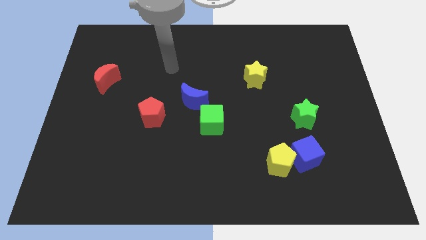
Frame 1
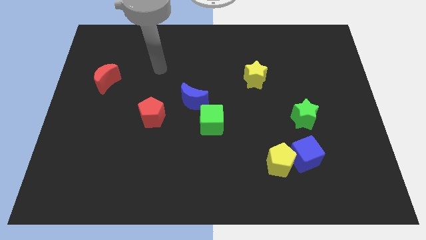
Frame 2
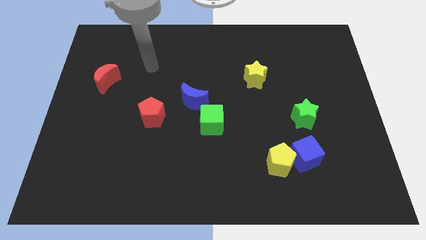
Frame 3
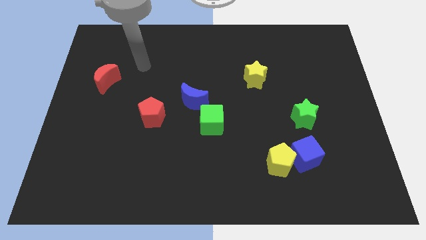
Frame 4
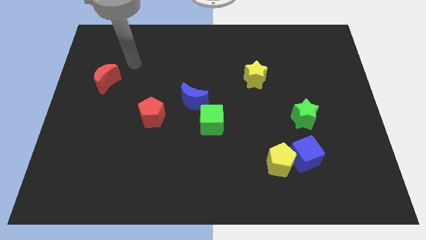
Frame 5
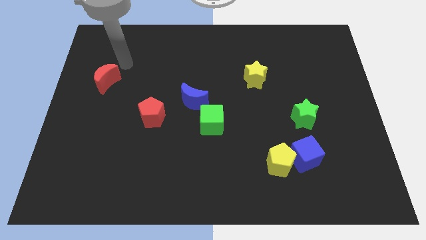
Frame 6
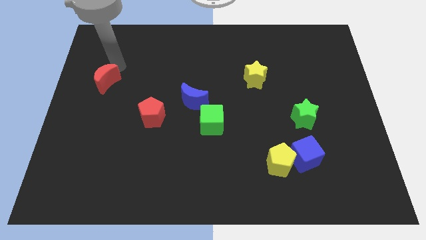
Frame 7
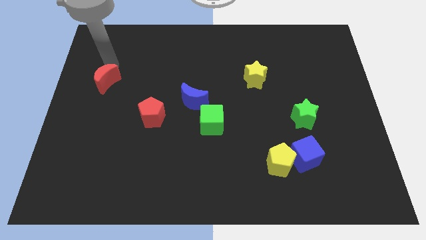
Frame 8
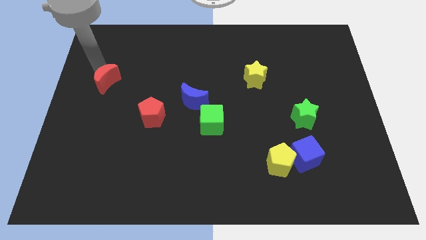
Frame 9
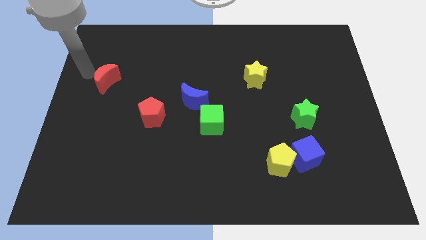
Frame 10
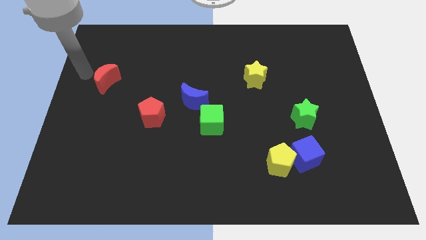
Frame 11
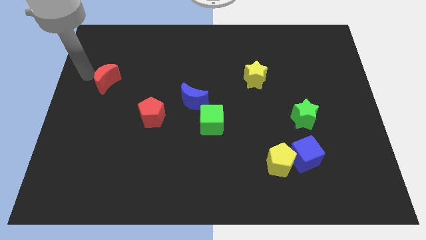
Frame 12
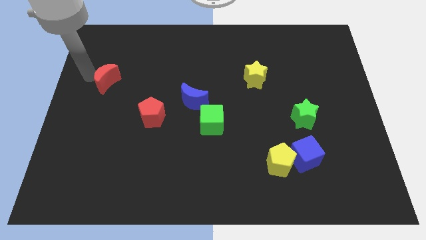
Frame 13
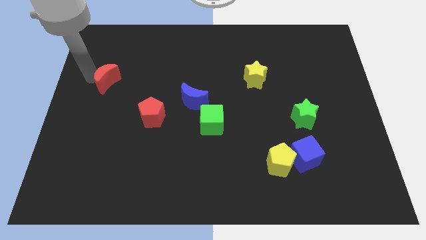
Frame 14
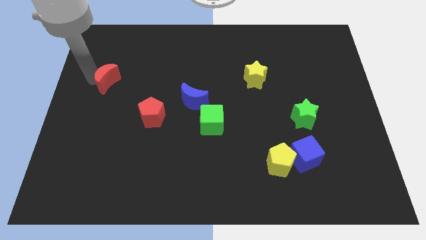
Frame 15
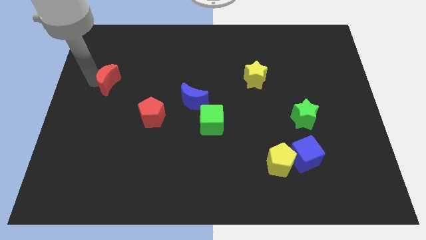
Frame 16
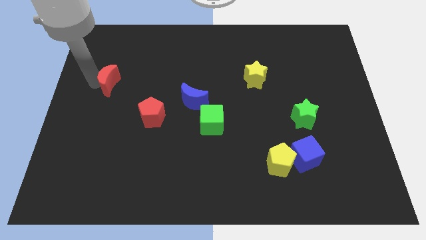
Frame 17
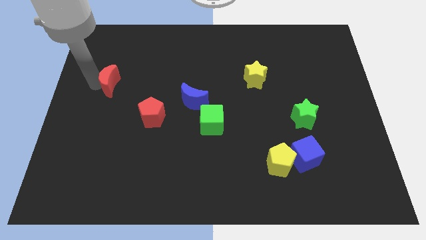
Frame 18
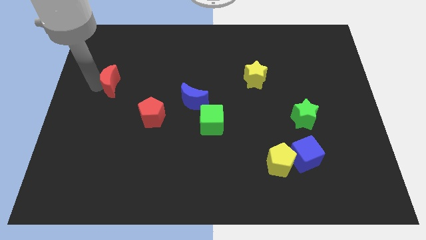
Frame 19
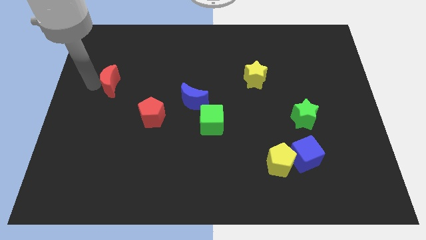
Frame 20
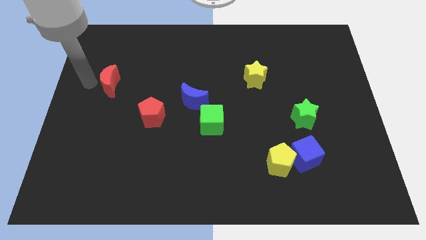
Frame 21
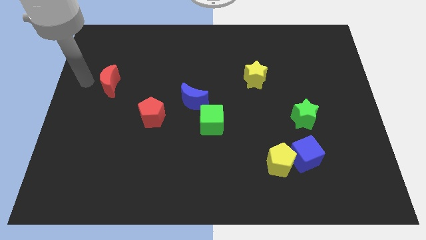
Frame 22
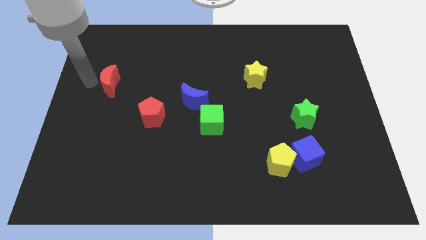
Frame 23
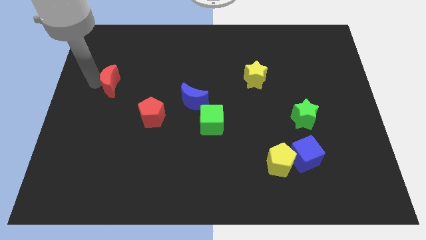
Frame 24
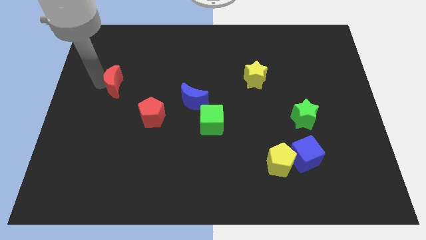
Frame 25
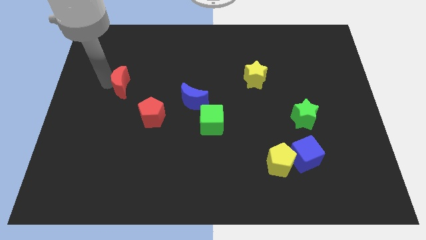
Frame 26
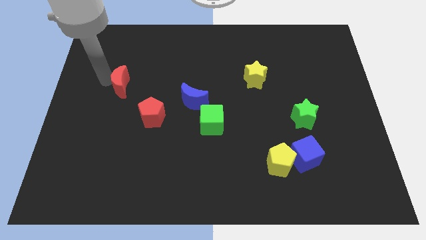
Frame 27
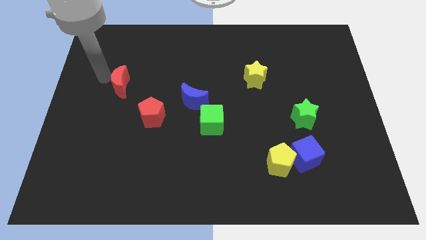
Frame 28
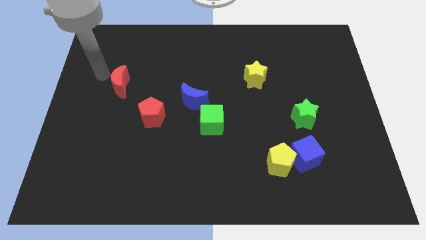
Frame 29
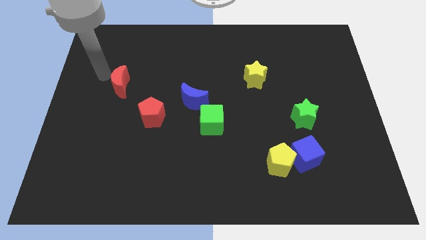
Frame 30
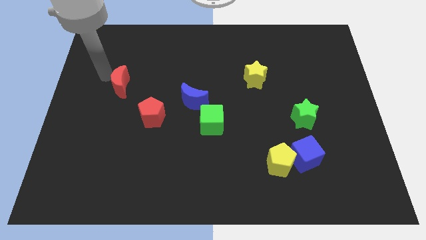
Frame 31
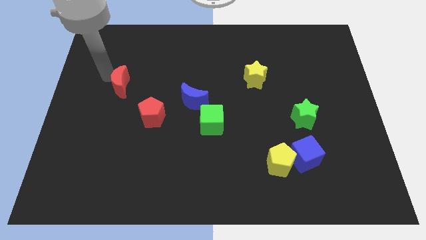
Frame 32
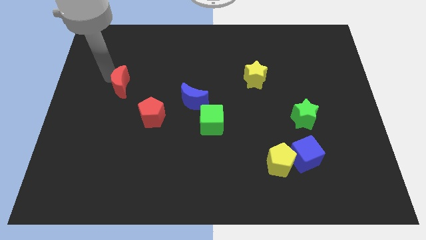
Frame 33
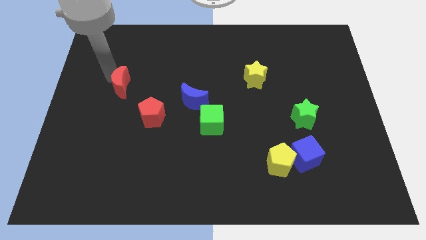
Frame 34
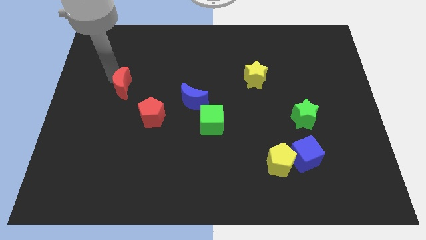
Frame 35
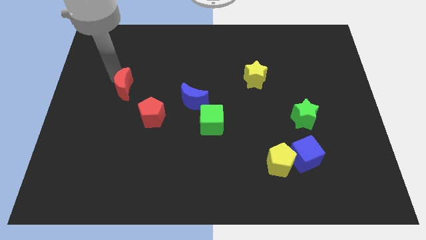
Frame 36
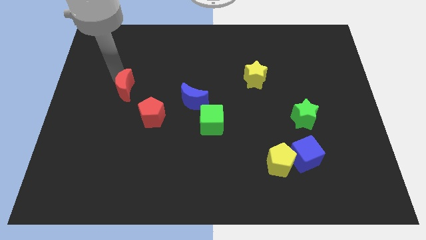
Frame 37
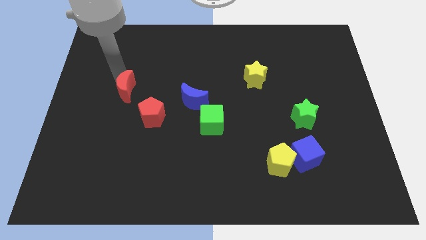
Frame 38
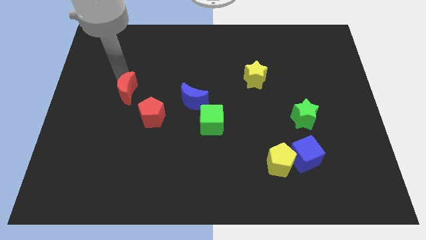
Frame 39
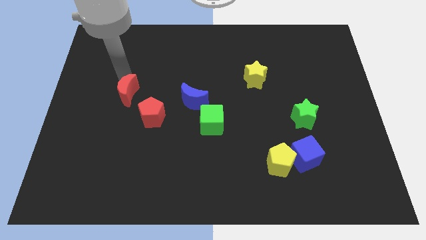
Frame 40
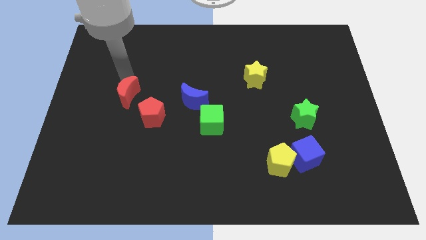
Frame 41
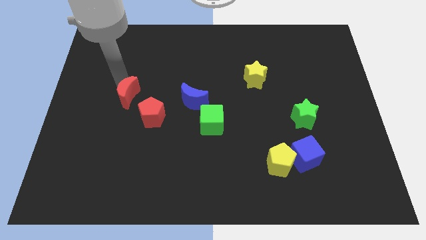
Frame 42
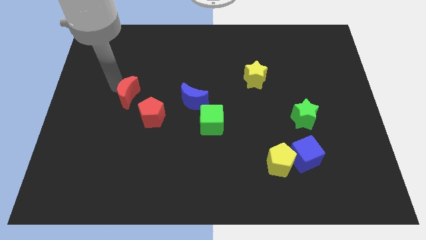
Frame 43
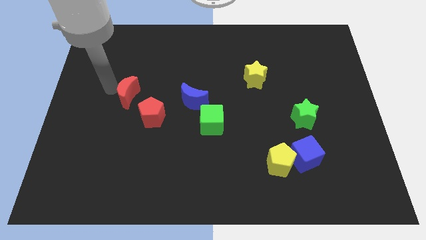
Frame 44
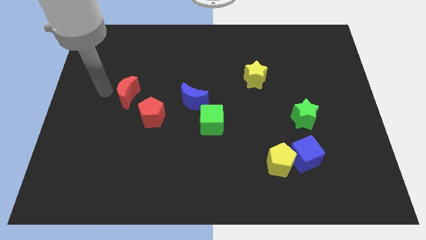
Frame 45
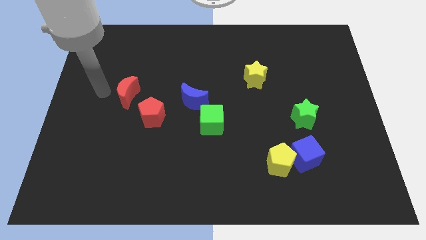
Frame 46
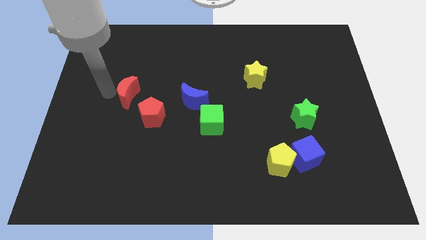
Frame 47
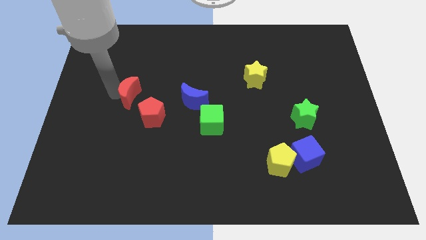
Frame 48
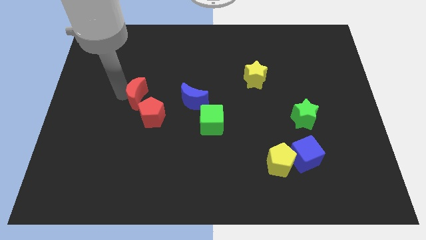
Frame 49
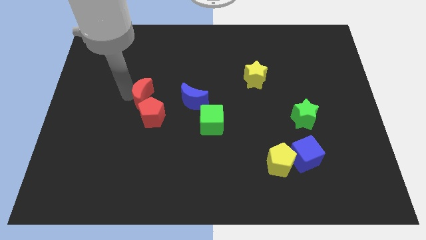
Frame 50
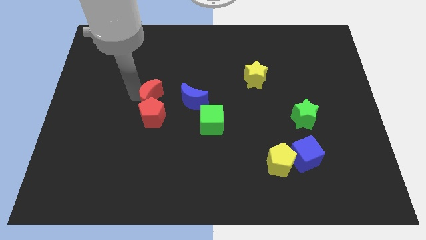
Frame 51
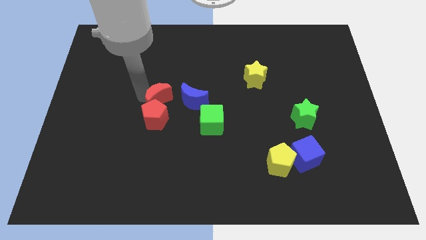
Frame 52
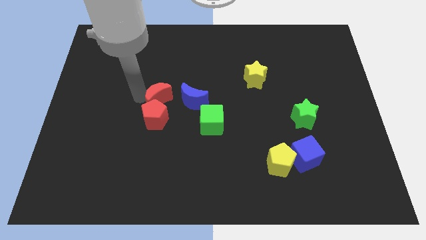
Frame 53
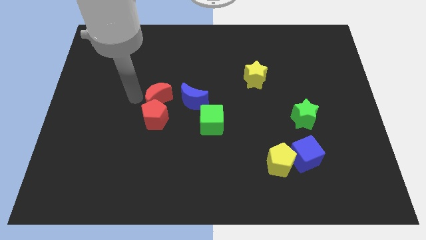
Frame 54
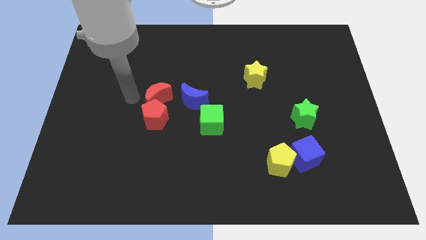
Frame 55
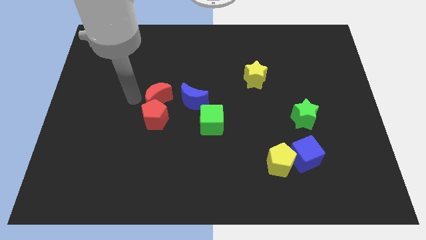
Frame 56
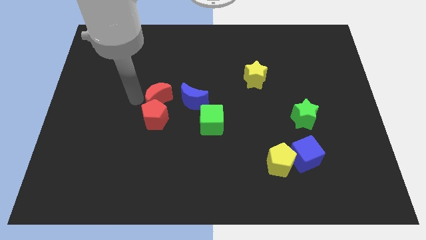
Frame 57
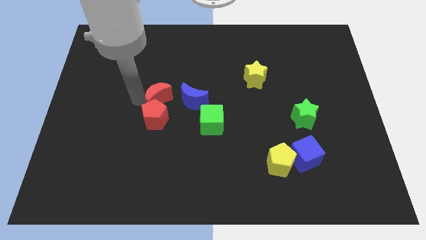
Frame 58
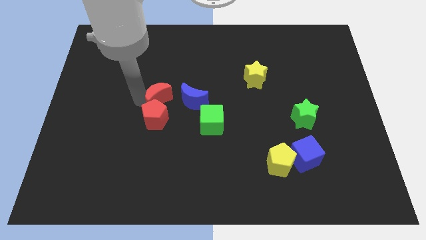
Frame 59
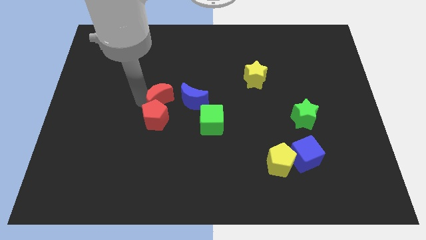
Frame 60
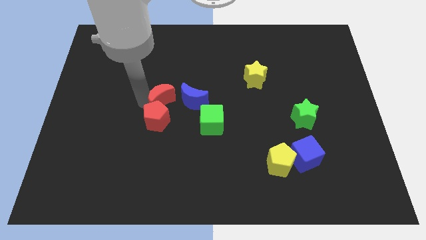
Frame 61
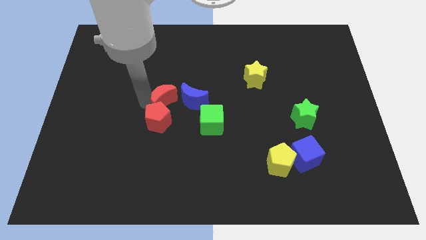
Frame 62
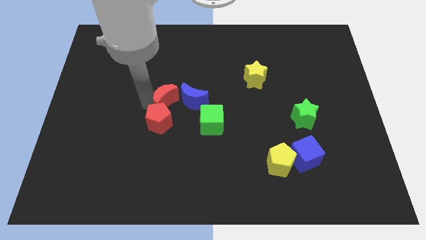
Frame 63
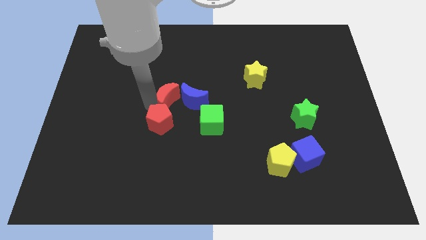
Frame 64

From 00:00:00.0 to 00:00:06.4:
push the red moon next to the blue moon
